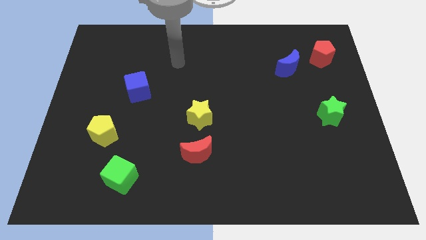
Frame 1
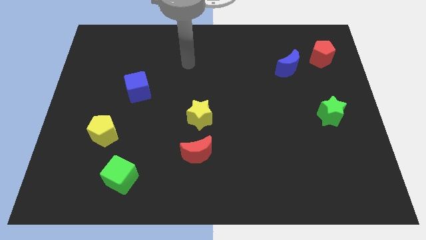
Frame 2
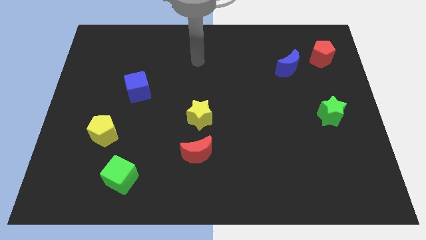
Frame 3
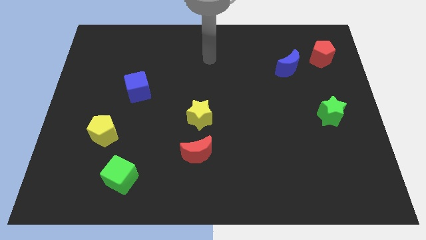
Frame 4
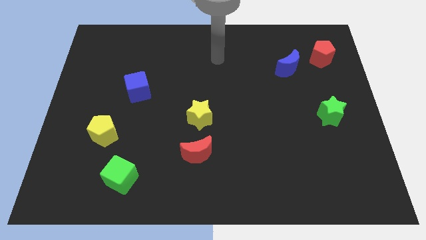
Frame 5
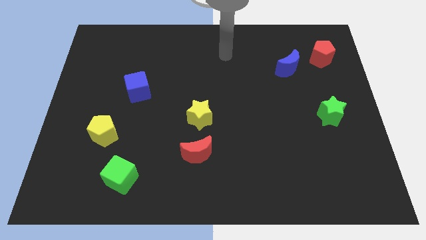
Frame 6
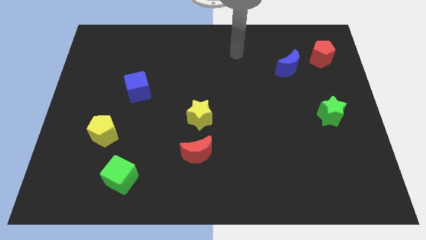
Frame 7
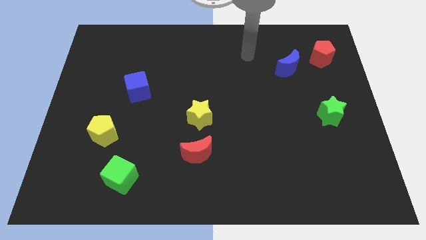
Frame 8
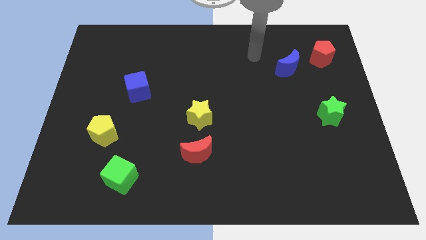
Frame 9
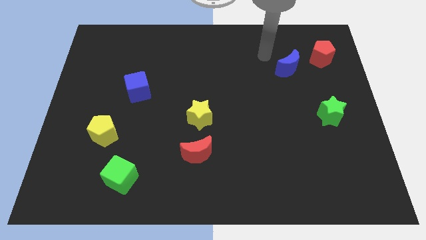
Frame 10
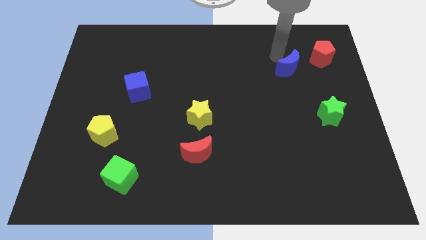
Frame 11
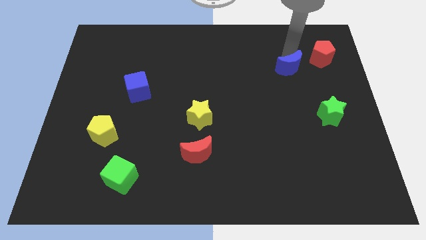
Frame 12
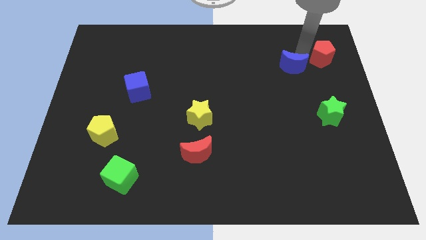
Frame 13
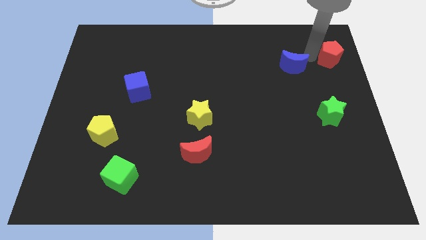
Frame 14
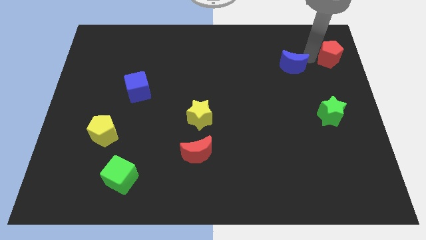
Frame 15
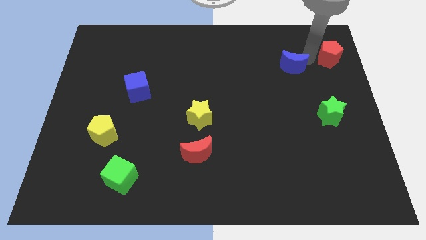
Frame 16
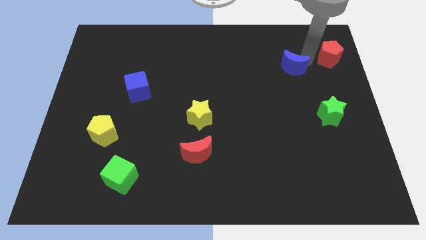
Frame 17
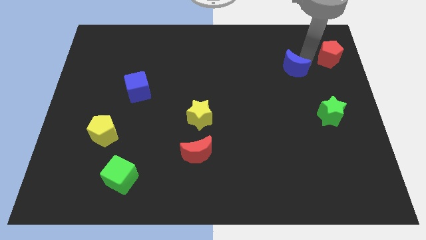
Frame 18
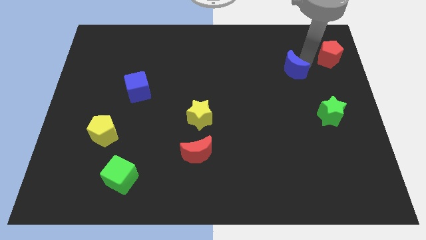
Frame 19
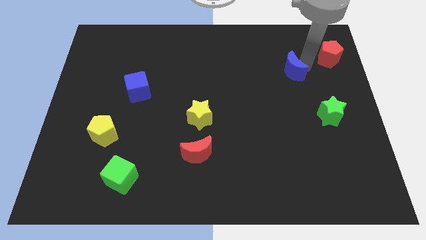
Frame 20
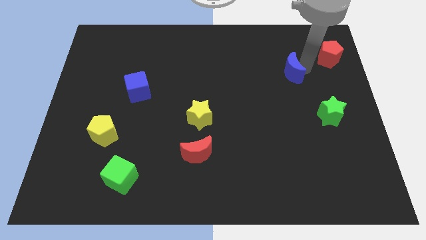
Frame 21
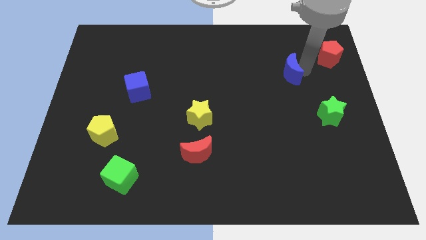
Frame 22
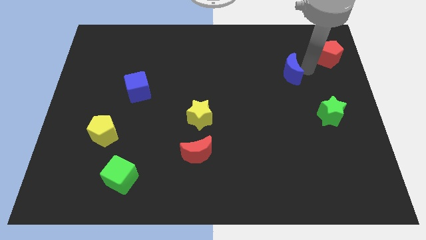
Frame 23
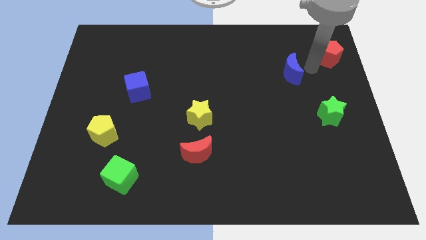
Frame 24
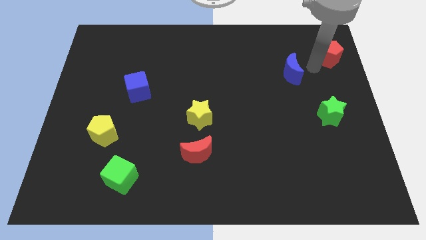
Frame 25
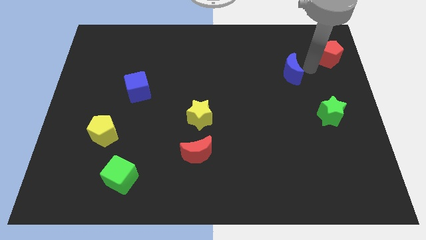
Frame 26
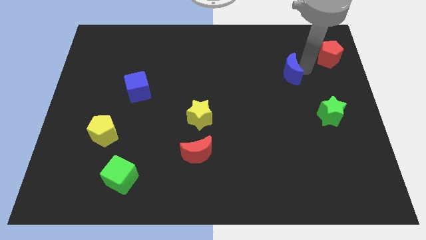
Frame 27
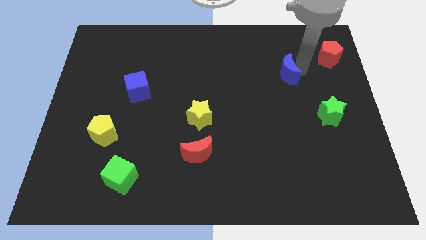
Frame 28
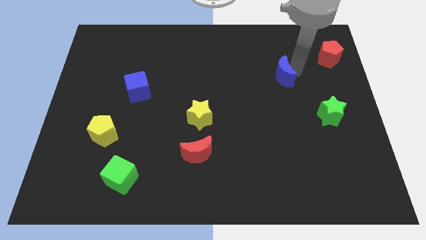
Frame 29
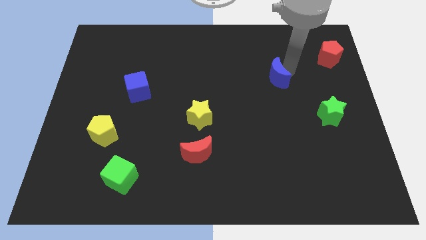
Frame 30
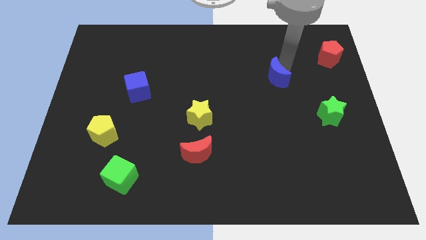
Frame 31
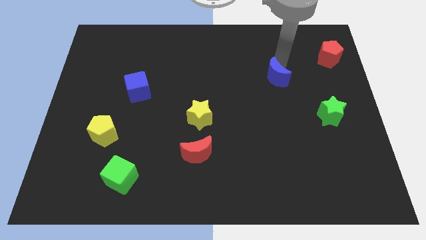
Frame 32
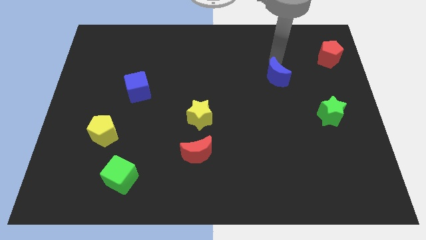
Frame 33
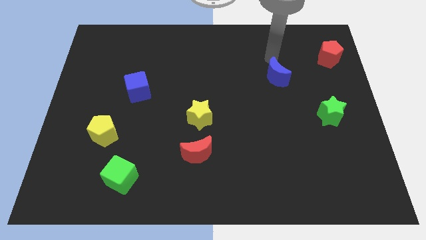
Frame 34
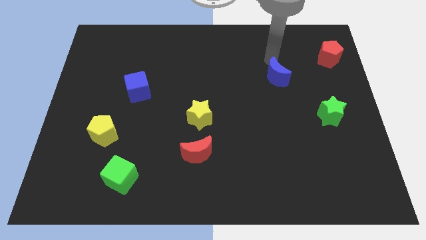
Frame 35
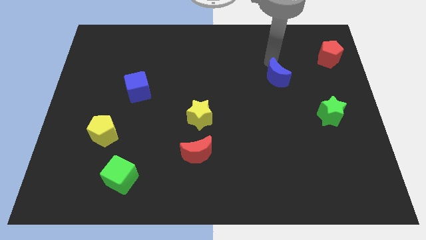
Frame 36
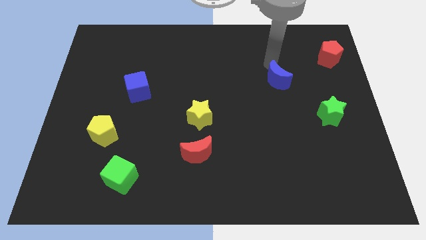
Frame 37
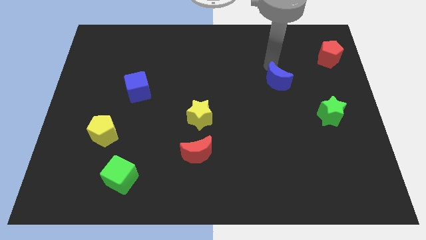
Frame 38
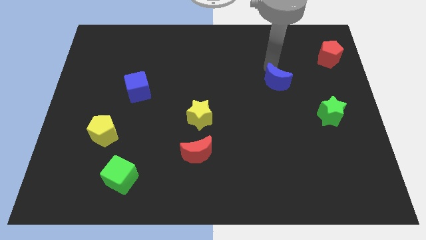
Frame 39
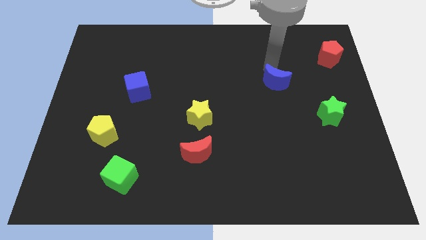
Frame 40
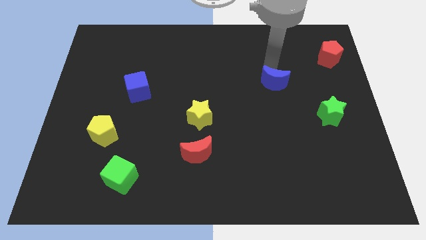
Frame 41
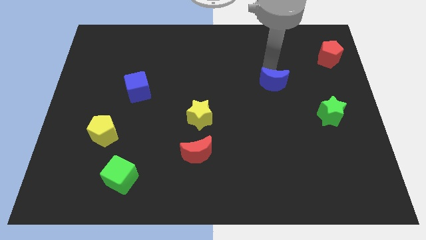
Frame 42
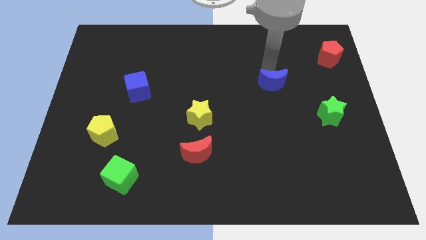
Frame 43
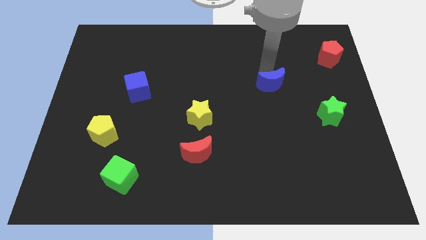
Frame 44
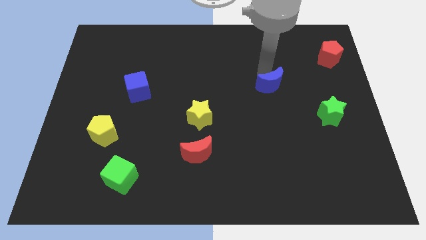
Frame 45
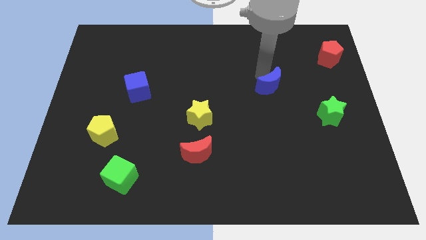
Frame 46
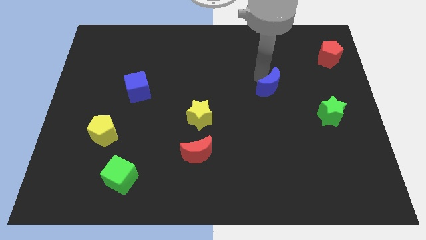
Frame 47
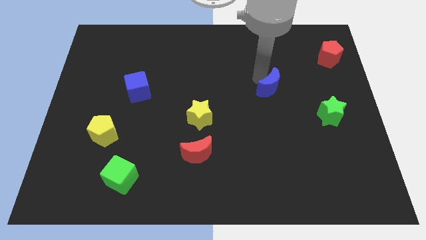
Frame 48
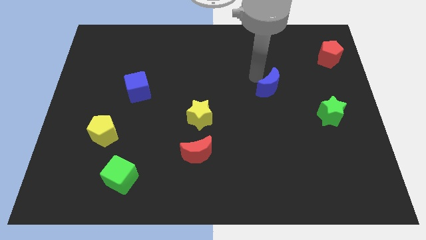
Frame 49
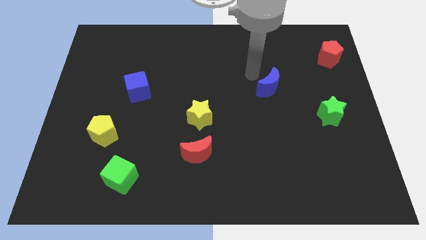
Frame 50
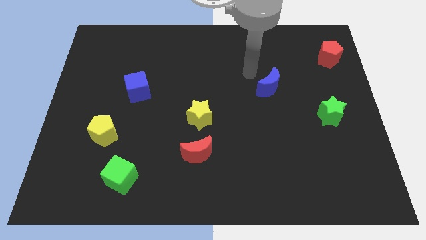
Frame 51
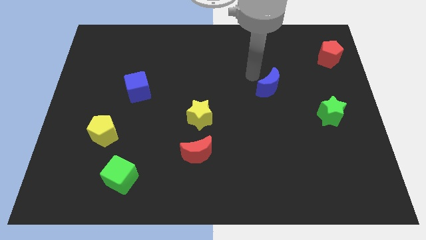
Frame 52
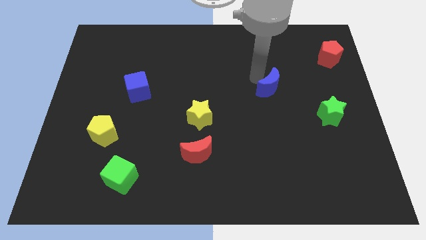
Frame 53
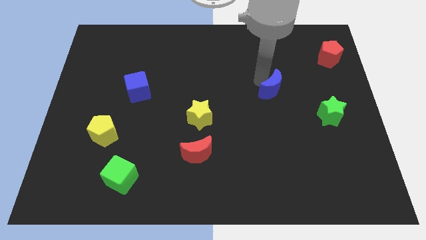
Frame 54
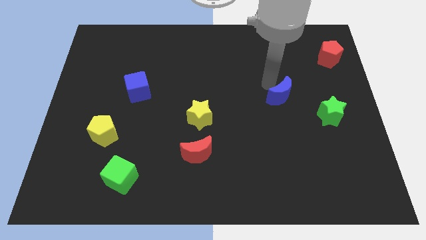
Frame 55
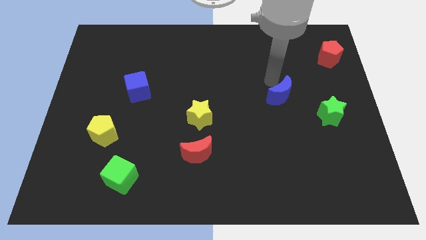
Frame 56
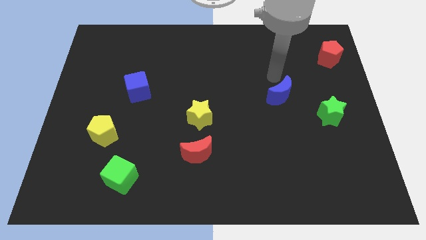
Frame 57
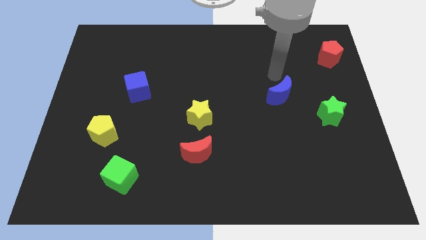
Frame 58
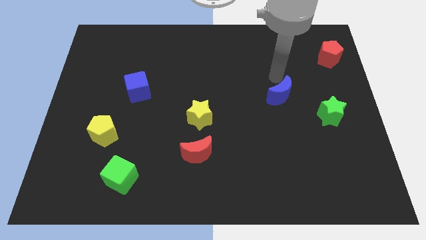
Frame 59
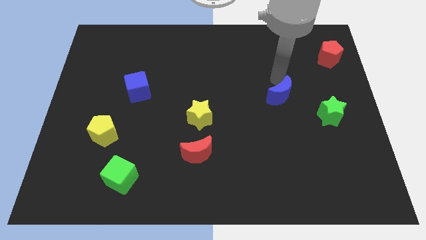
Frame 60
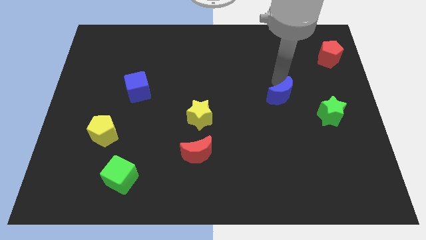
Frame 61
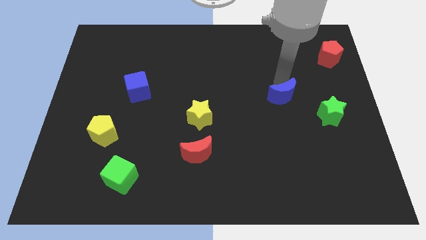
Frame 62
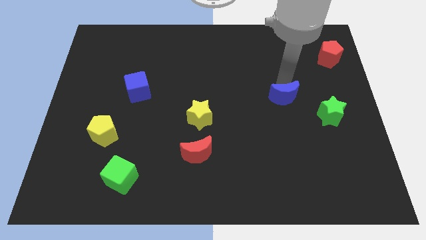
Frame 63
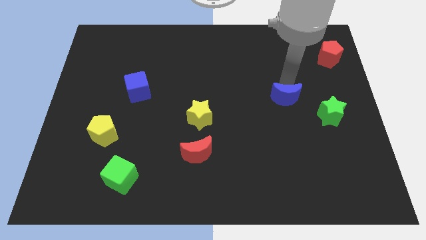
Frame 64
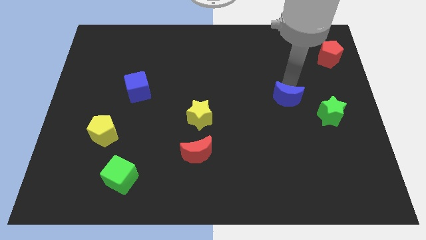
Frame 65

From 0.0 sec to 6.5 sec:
put the blue moon left of the green star

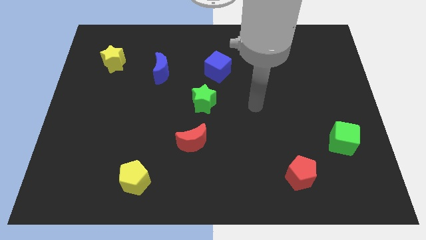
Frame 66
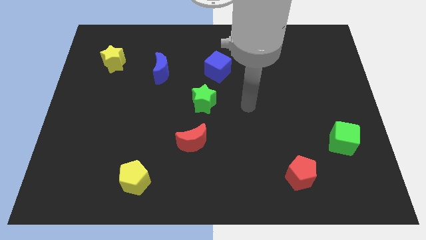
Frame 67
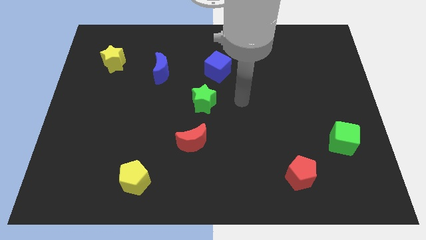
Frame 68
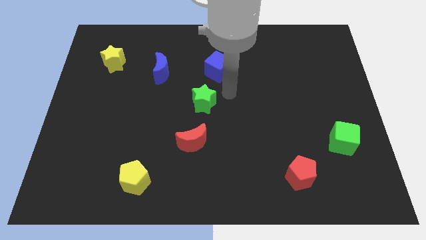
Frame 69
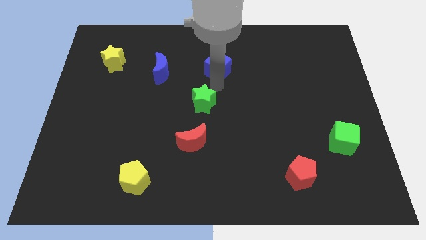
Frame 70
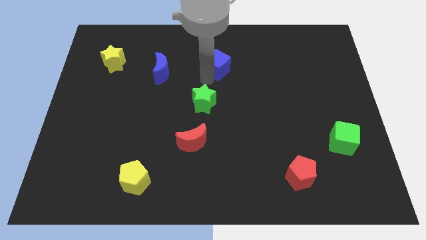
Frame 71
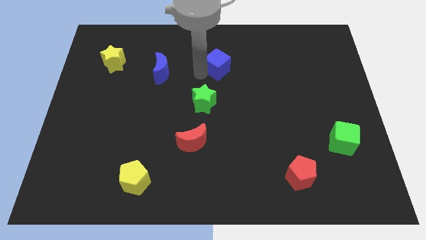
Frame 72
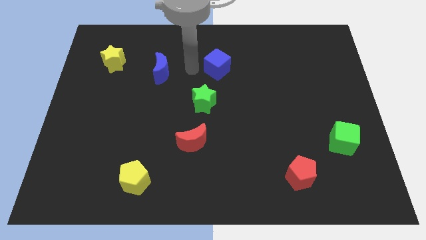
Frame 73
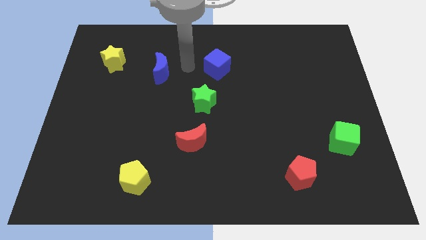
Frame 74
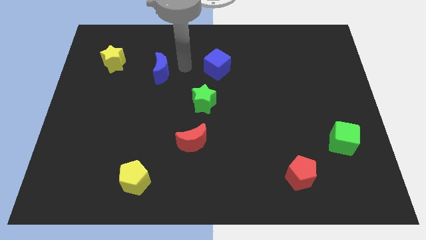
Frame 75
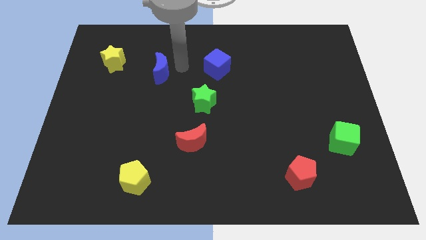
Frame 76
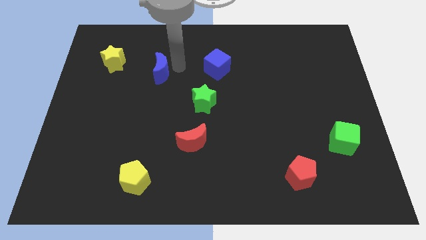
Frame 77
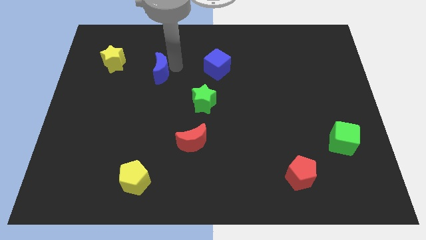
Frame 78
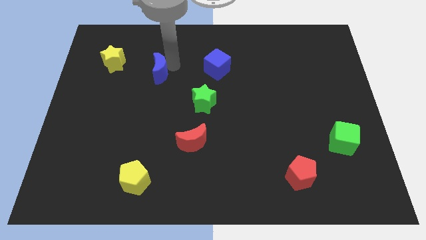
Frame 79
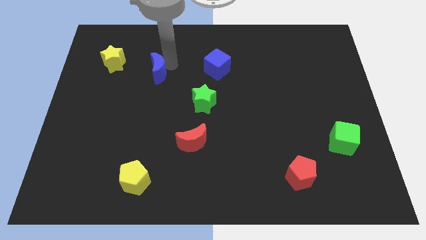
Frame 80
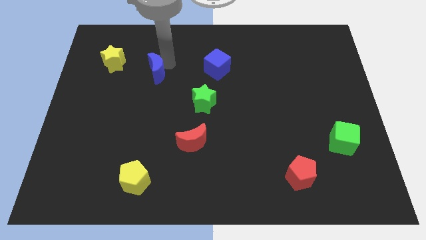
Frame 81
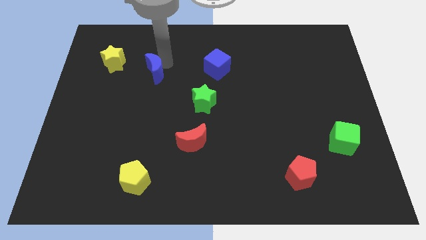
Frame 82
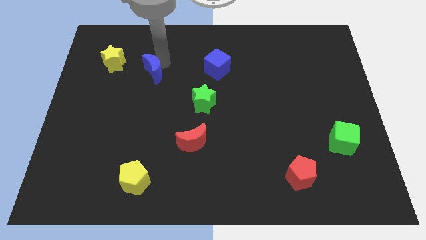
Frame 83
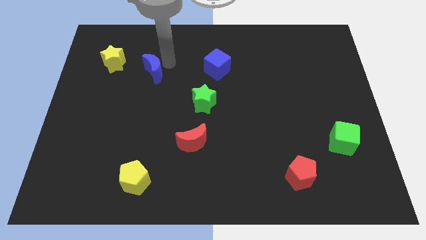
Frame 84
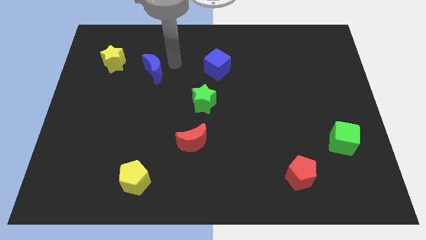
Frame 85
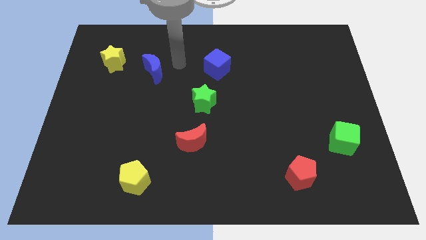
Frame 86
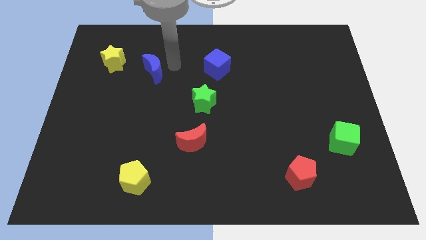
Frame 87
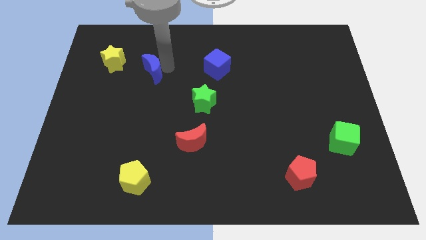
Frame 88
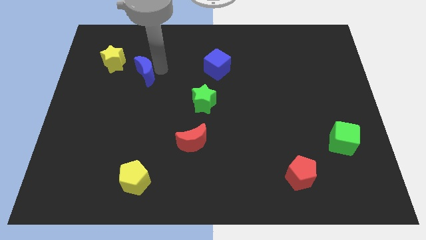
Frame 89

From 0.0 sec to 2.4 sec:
push the blue moon to the bottom right side of the yellow star
